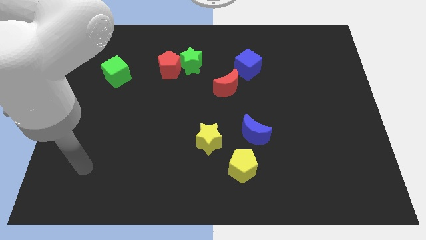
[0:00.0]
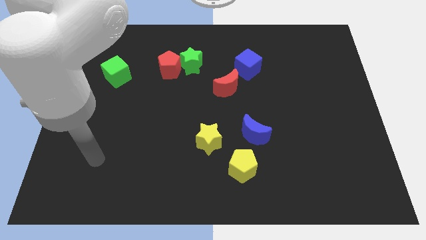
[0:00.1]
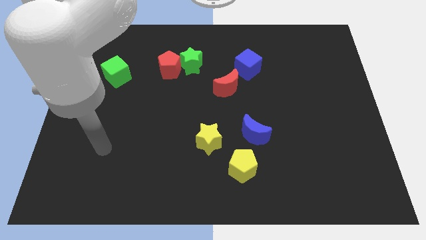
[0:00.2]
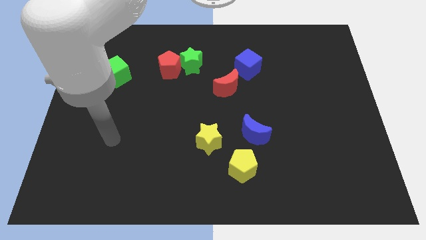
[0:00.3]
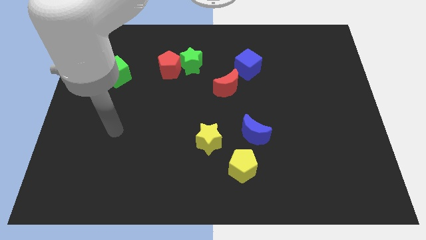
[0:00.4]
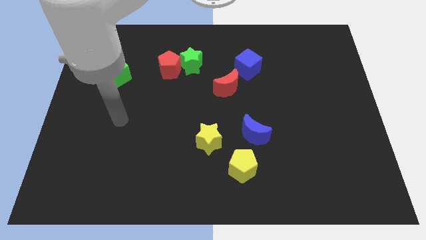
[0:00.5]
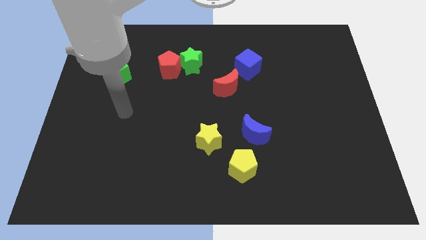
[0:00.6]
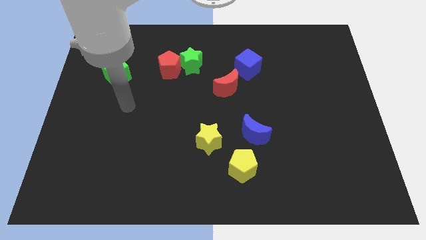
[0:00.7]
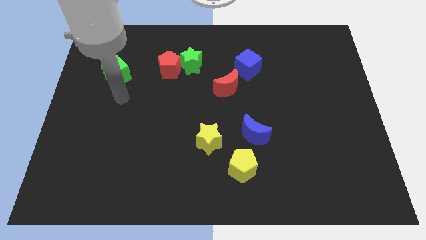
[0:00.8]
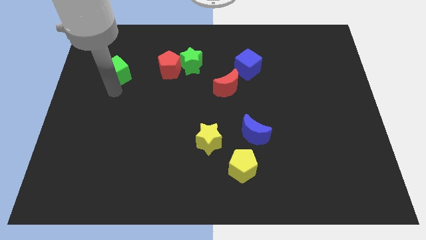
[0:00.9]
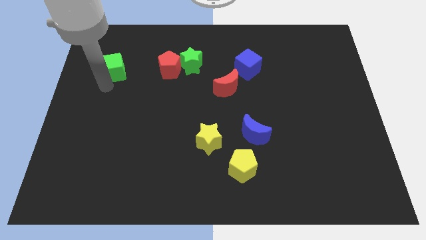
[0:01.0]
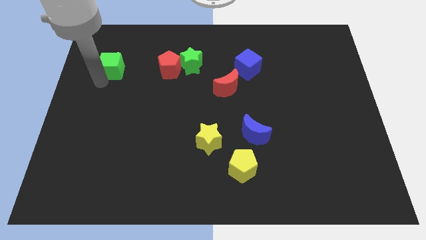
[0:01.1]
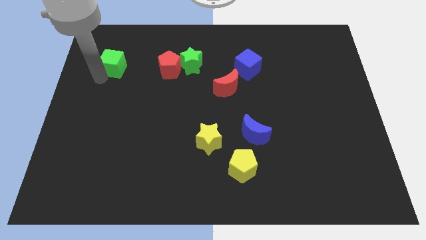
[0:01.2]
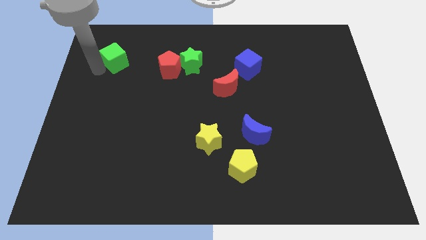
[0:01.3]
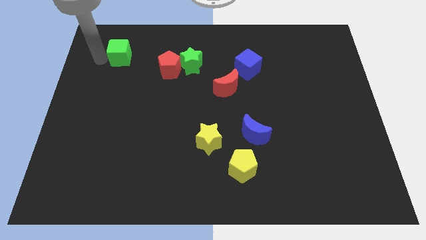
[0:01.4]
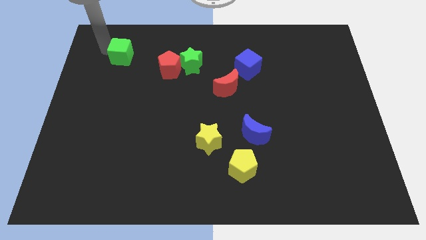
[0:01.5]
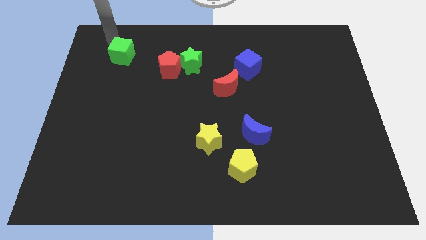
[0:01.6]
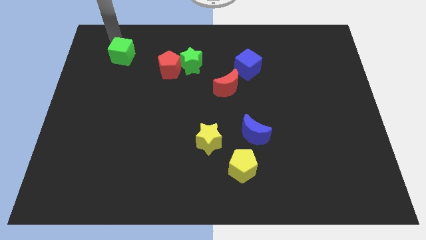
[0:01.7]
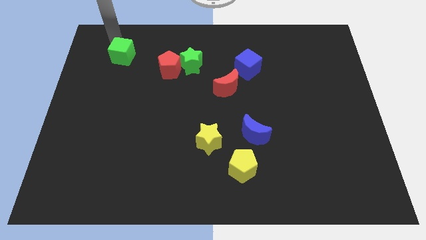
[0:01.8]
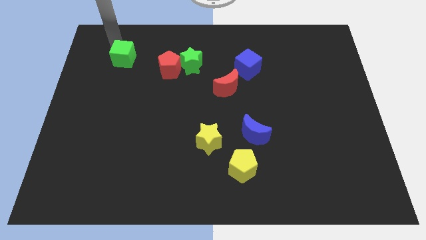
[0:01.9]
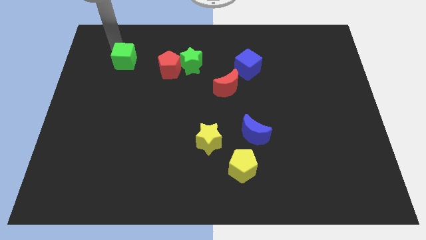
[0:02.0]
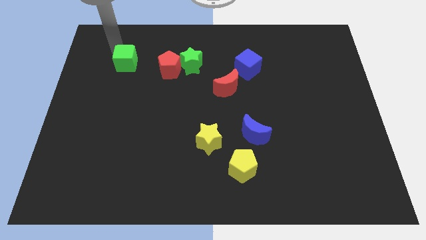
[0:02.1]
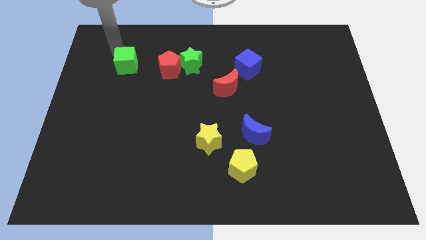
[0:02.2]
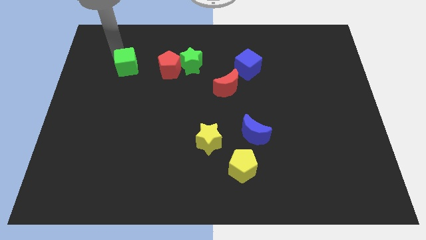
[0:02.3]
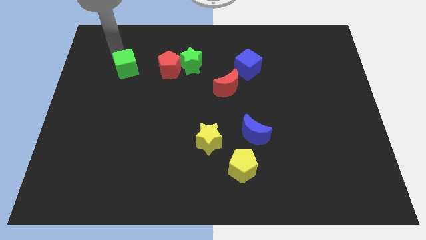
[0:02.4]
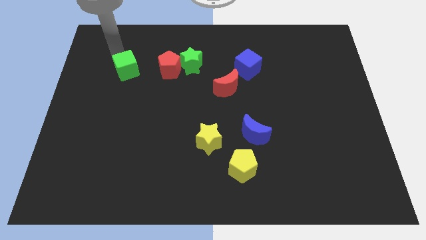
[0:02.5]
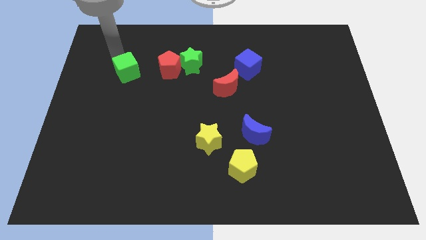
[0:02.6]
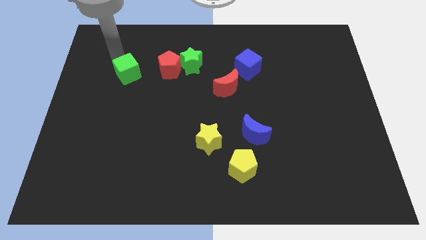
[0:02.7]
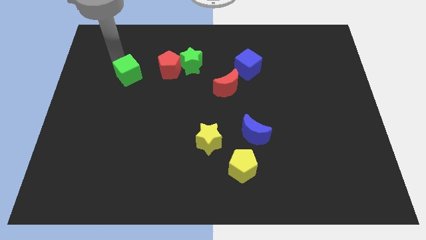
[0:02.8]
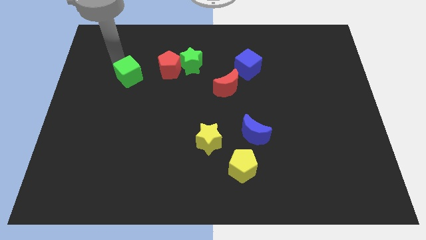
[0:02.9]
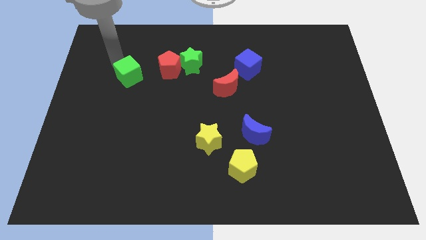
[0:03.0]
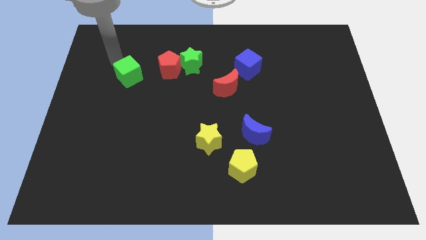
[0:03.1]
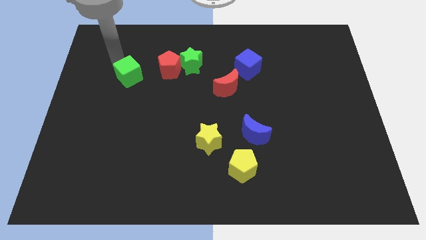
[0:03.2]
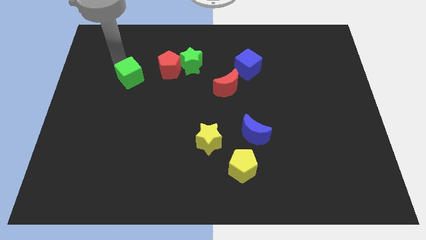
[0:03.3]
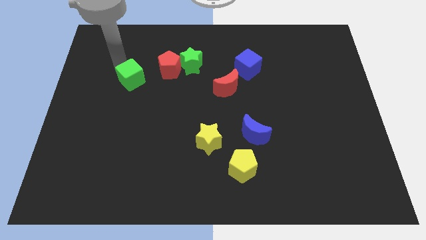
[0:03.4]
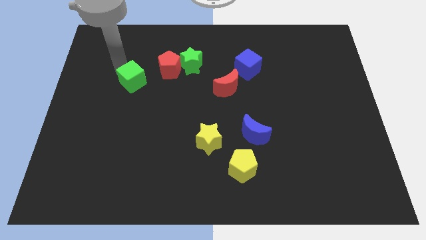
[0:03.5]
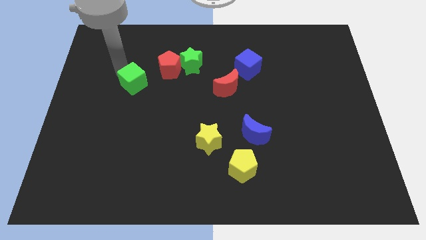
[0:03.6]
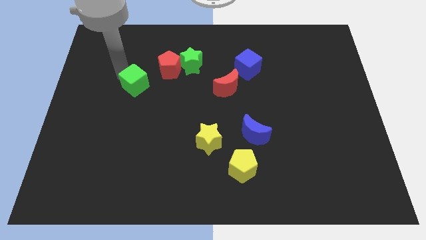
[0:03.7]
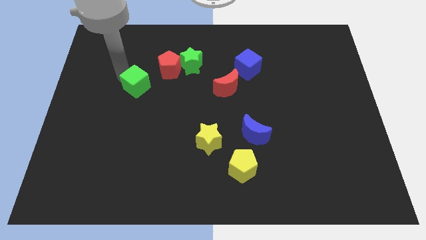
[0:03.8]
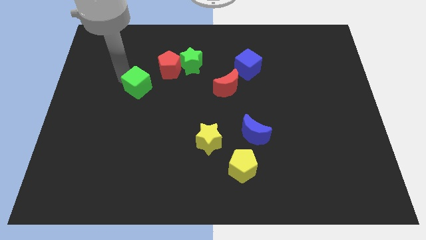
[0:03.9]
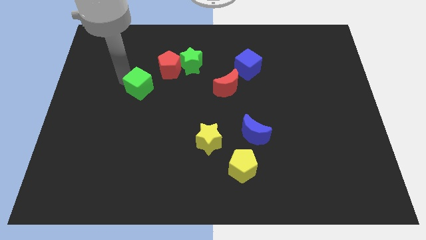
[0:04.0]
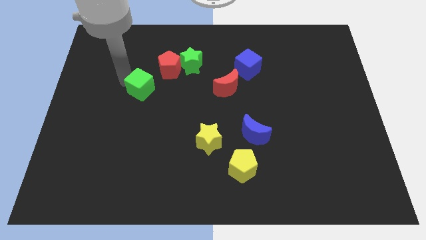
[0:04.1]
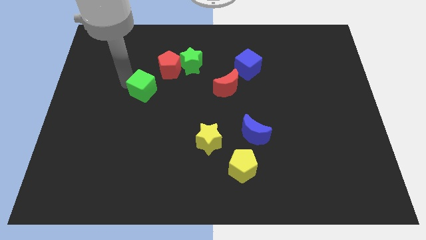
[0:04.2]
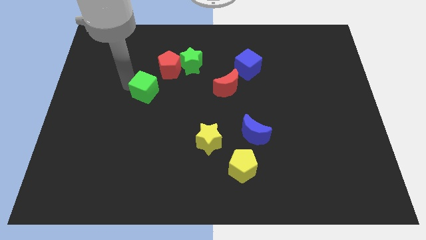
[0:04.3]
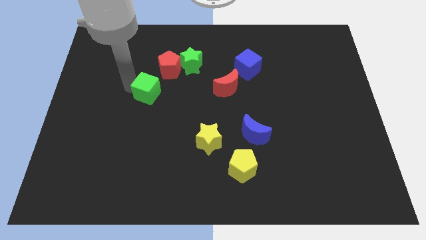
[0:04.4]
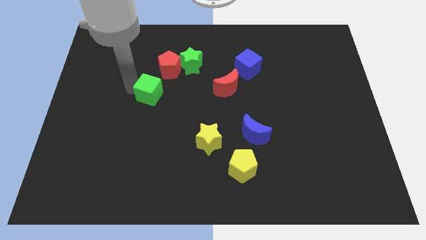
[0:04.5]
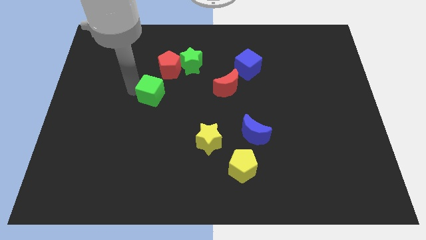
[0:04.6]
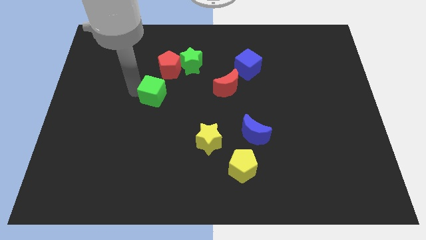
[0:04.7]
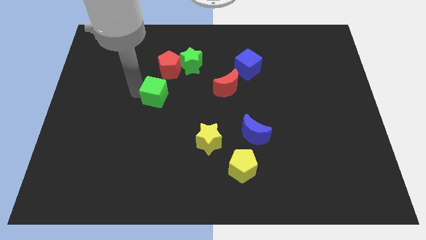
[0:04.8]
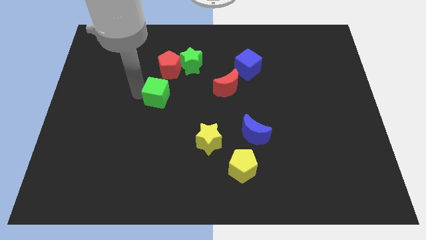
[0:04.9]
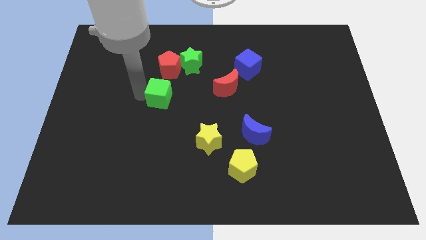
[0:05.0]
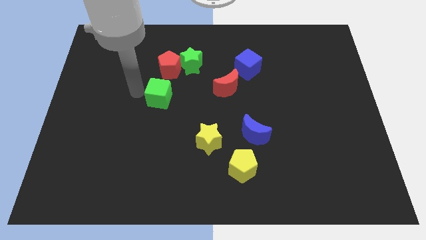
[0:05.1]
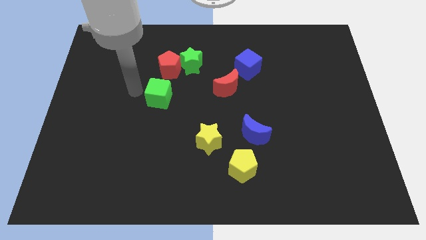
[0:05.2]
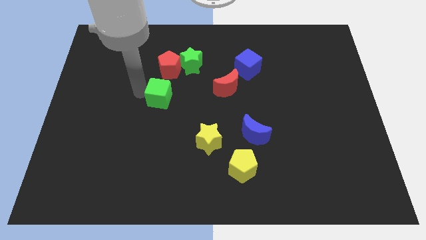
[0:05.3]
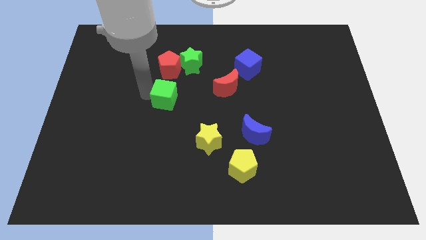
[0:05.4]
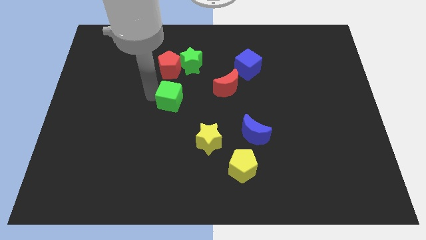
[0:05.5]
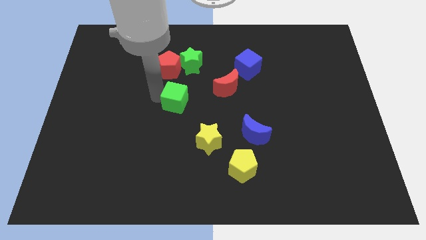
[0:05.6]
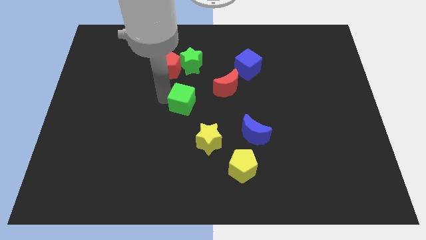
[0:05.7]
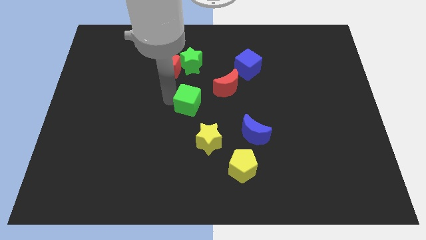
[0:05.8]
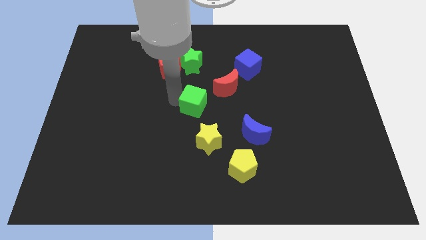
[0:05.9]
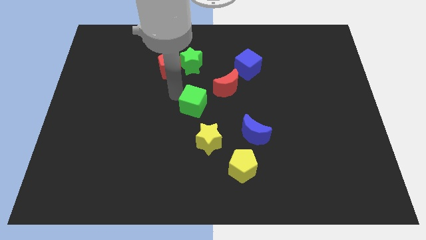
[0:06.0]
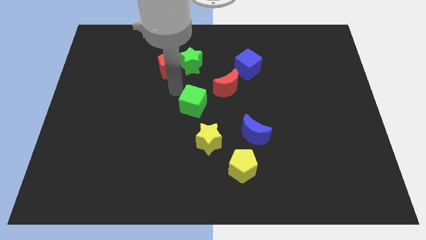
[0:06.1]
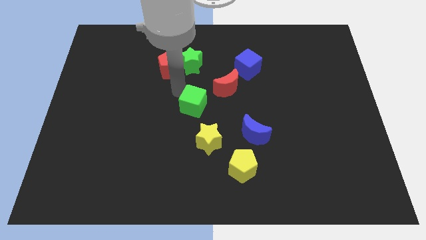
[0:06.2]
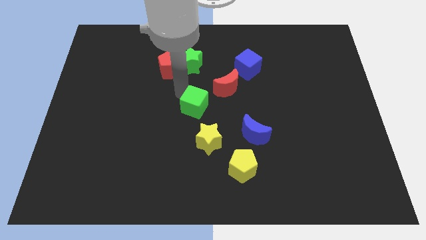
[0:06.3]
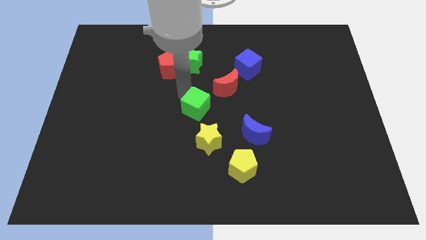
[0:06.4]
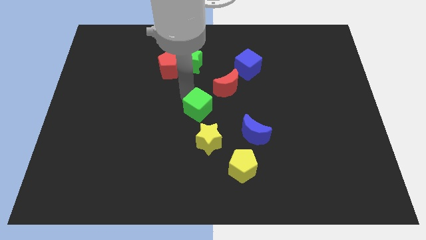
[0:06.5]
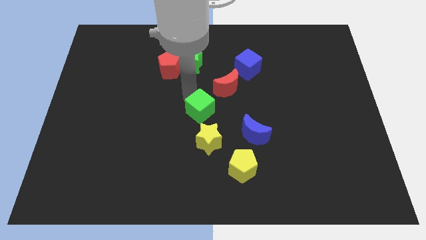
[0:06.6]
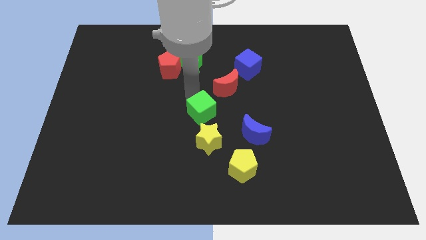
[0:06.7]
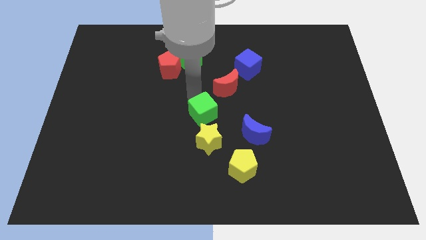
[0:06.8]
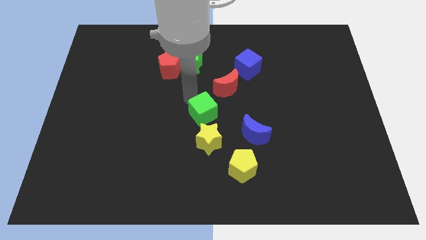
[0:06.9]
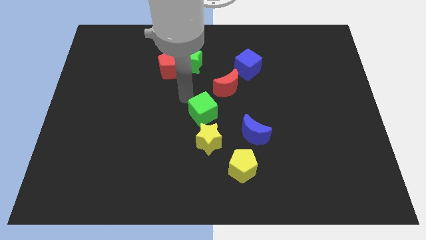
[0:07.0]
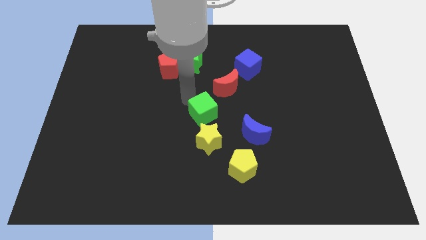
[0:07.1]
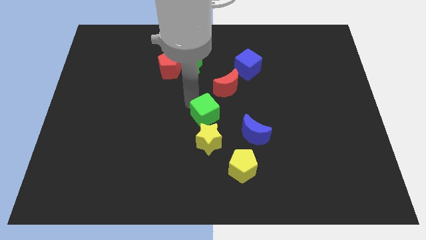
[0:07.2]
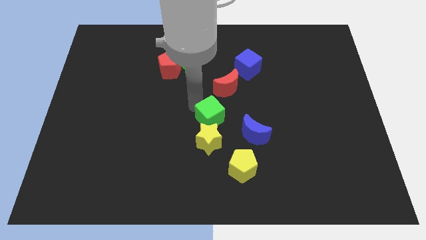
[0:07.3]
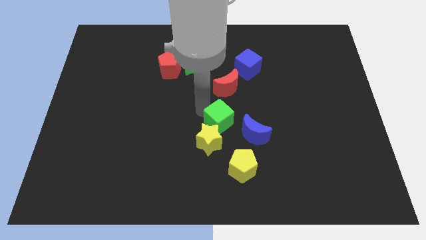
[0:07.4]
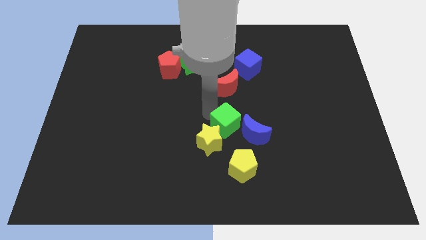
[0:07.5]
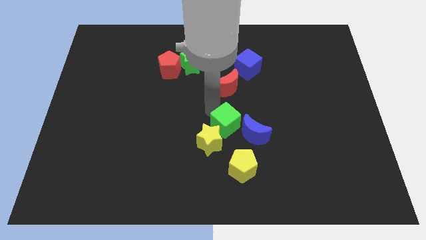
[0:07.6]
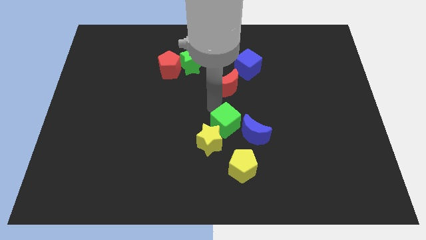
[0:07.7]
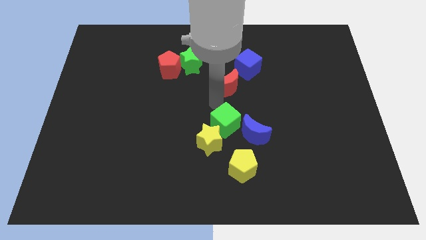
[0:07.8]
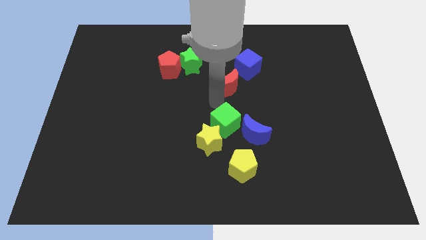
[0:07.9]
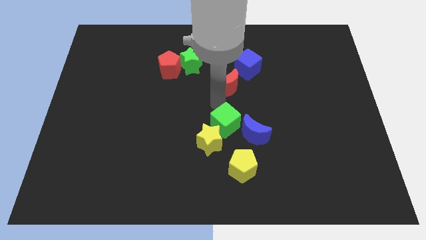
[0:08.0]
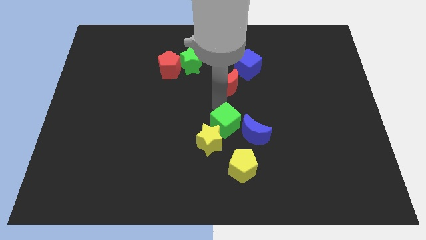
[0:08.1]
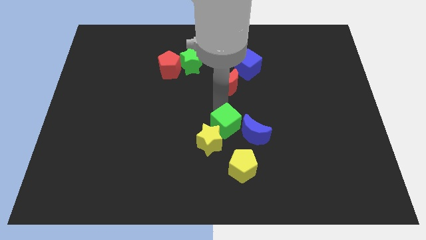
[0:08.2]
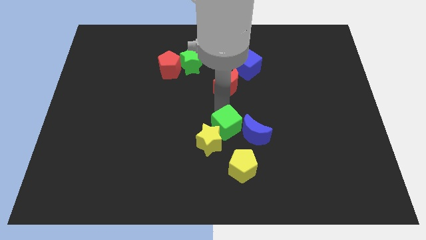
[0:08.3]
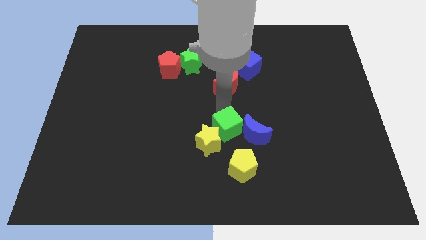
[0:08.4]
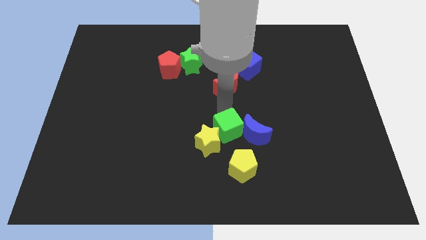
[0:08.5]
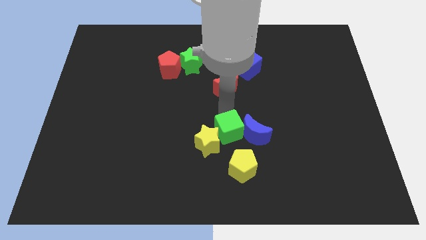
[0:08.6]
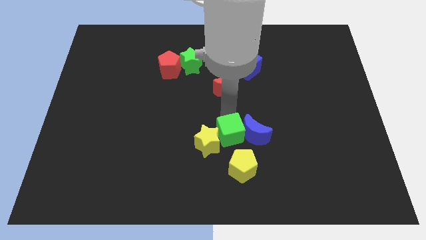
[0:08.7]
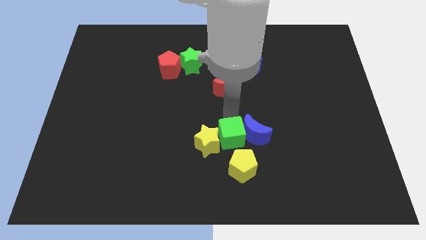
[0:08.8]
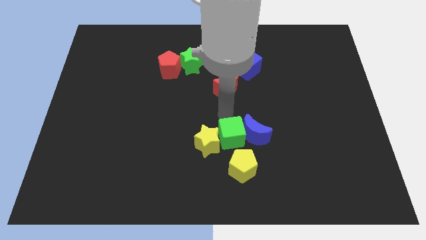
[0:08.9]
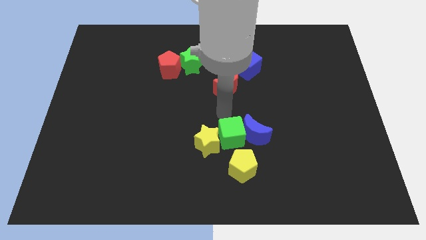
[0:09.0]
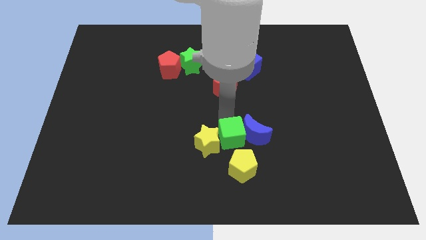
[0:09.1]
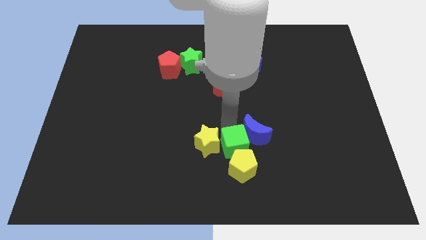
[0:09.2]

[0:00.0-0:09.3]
move the green cube towards the yellow pentagon
